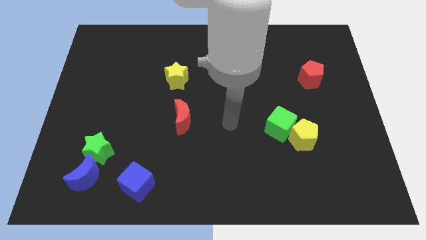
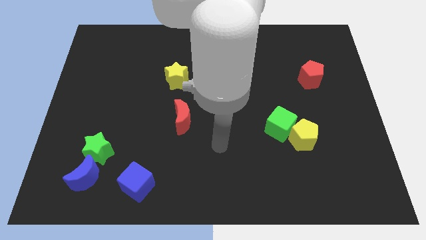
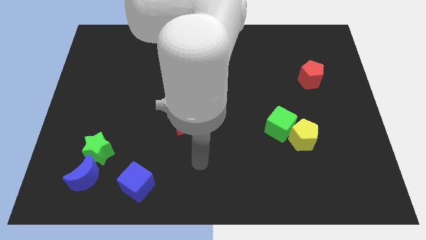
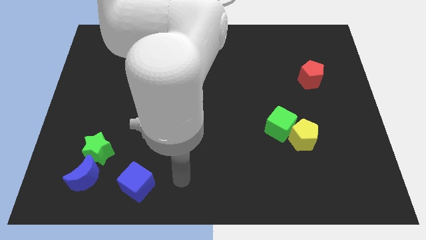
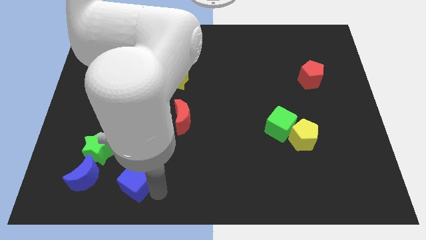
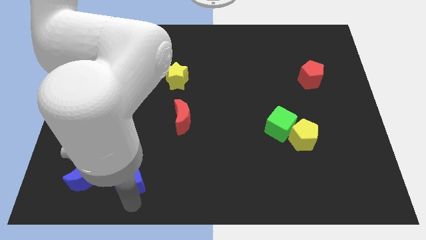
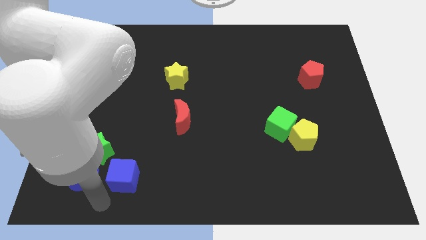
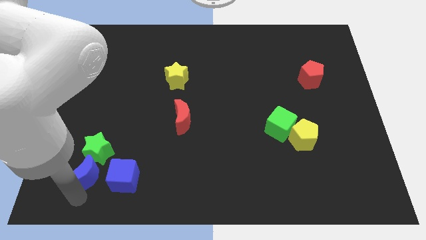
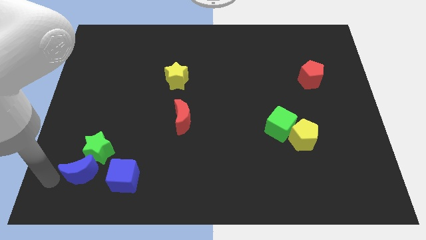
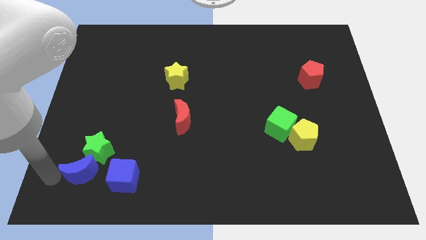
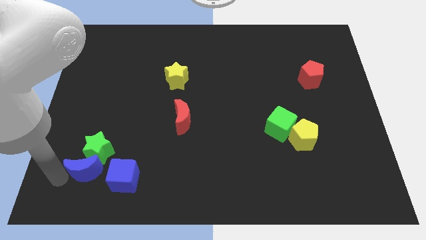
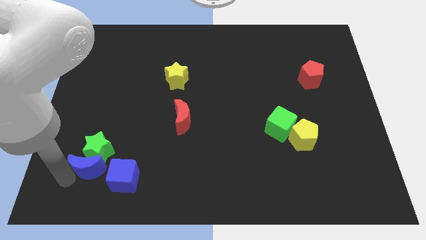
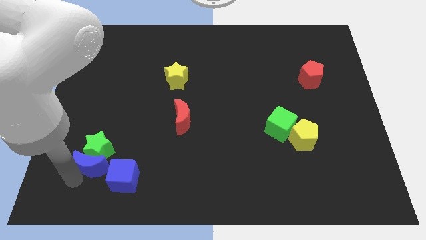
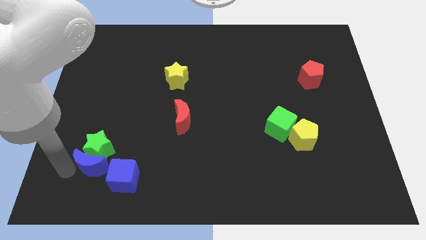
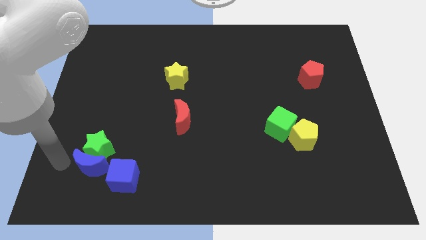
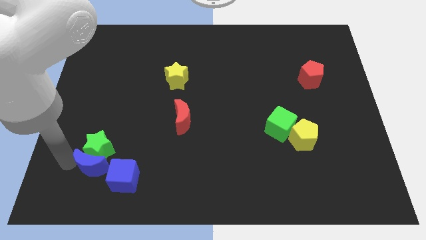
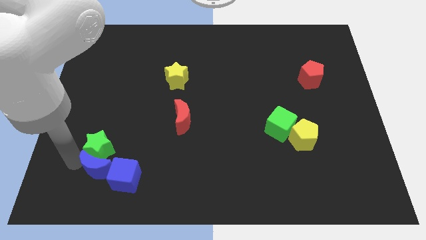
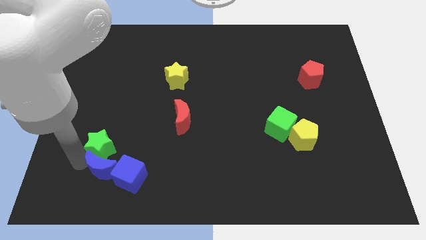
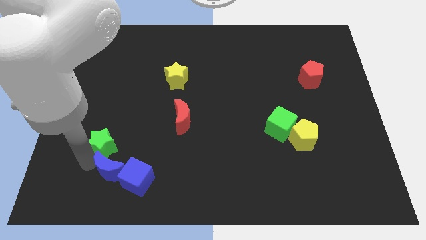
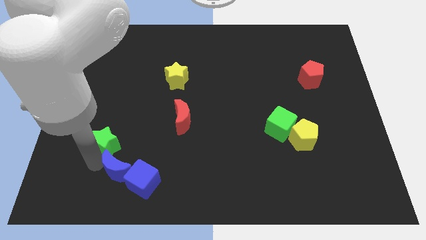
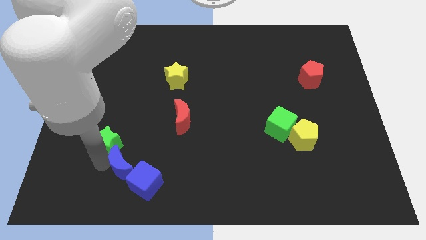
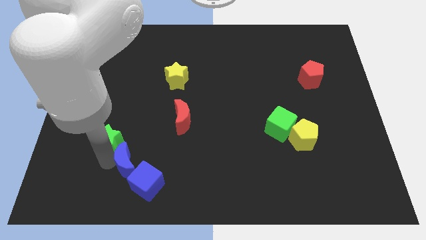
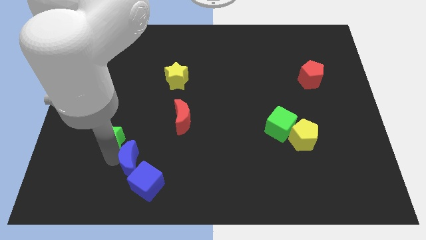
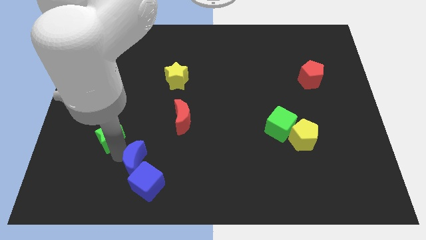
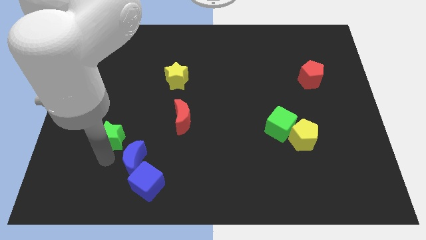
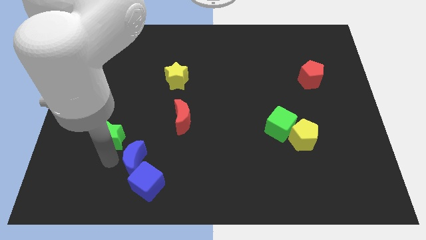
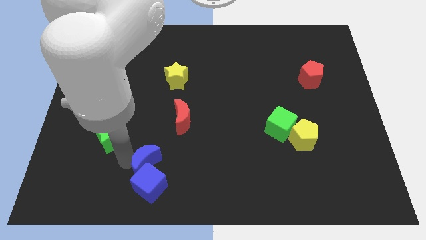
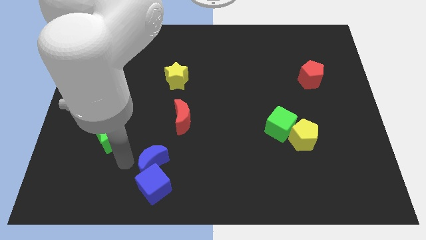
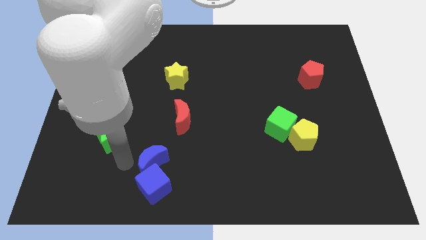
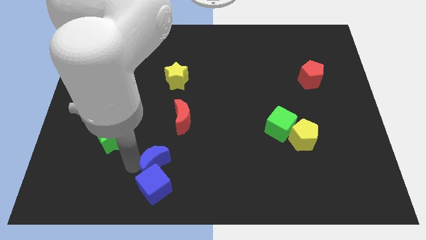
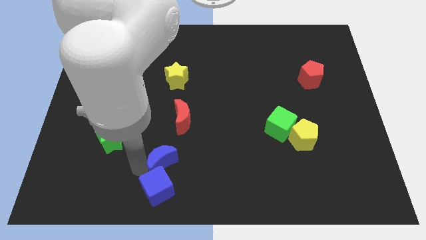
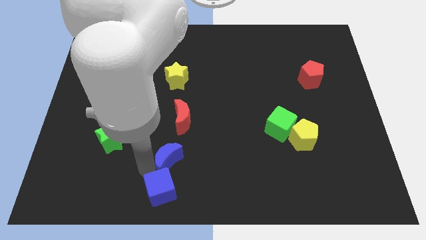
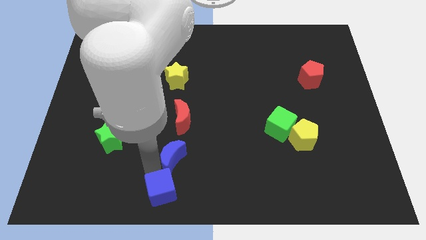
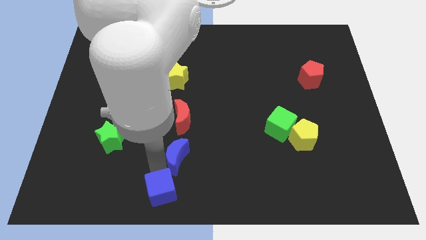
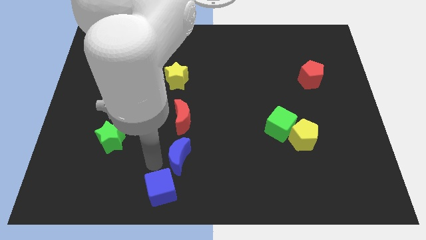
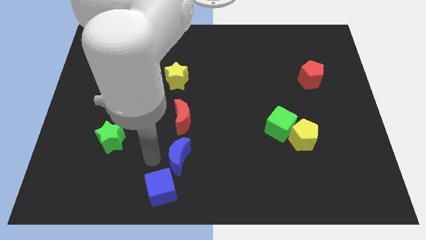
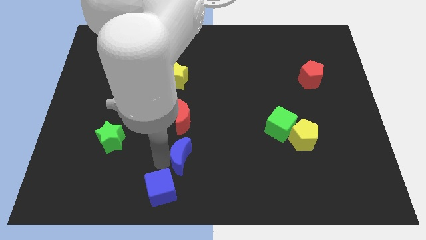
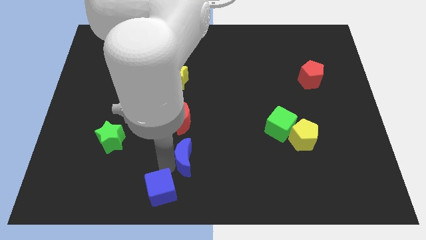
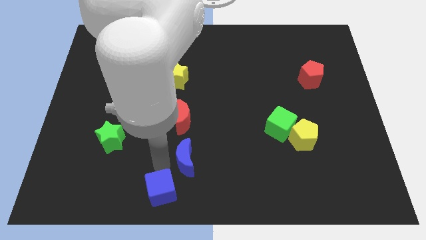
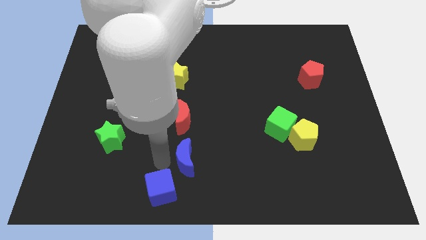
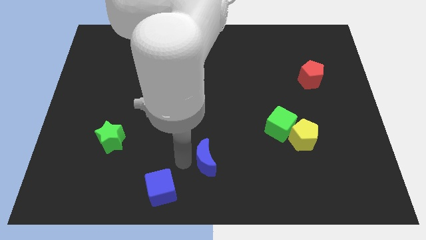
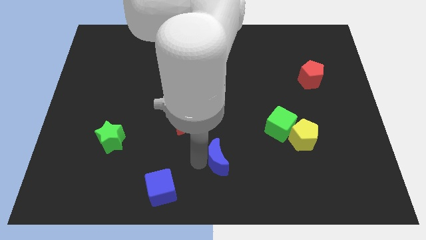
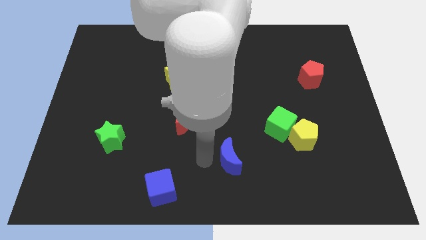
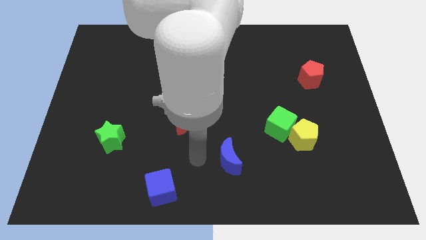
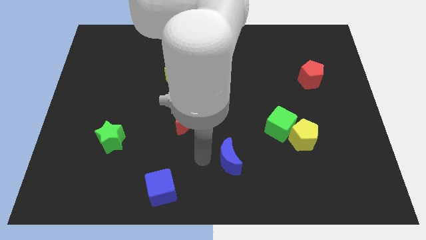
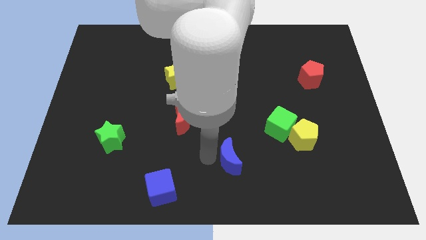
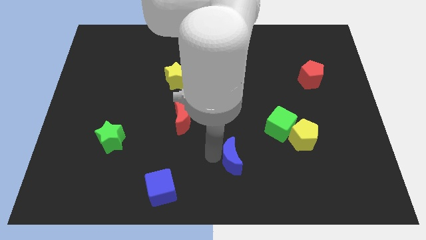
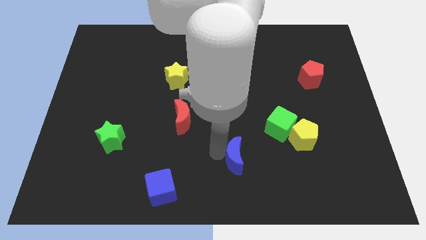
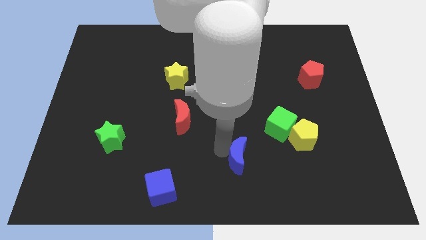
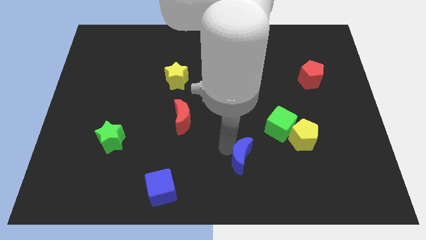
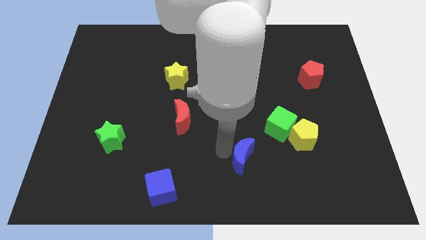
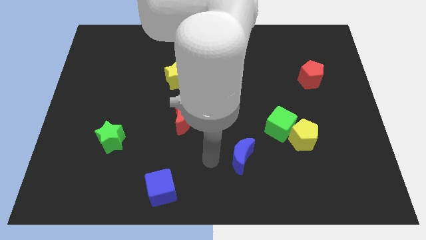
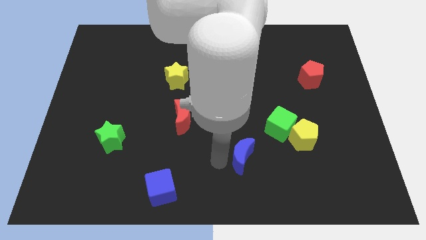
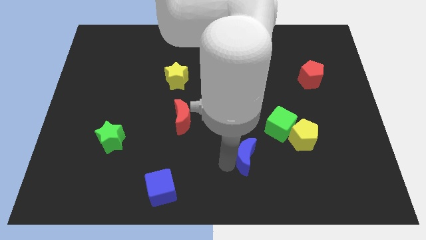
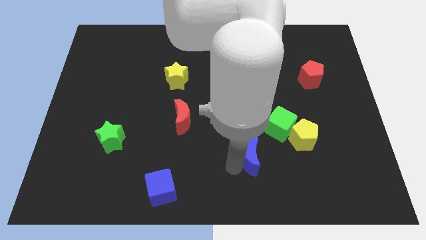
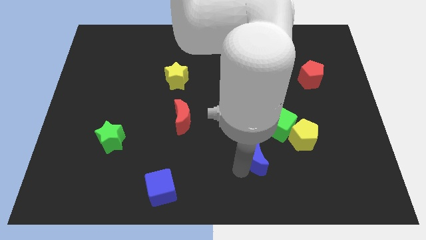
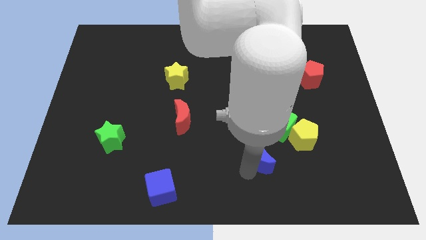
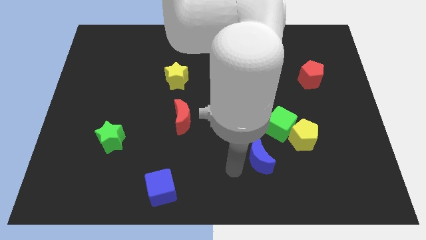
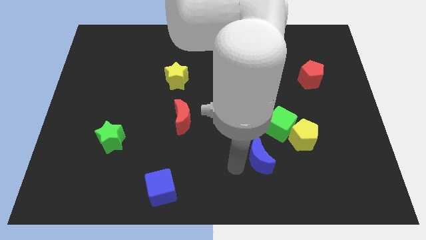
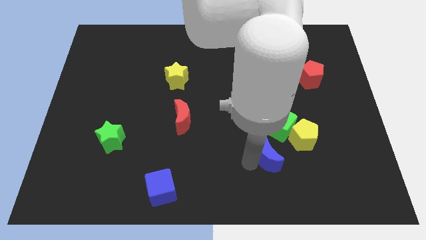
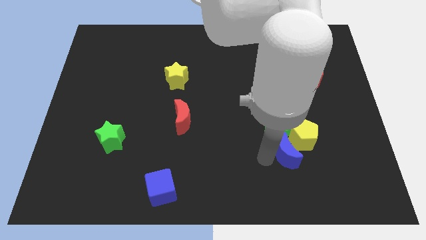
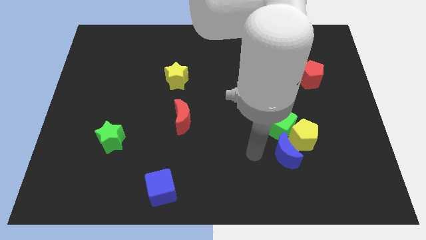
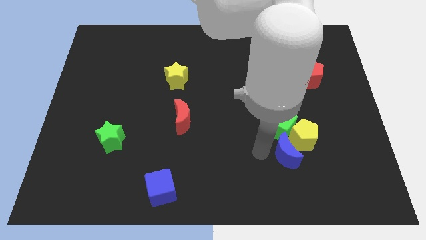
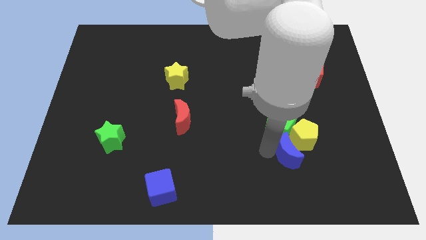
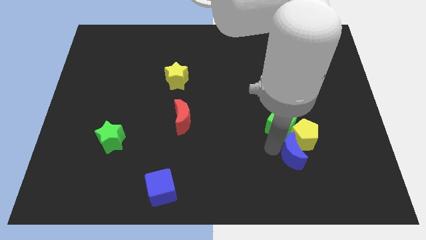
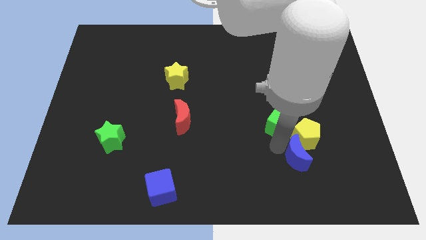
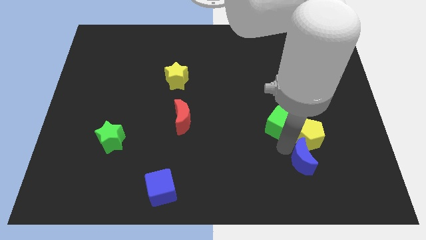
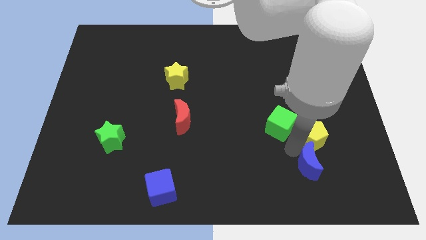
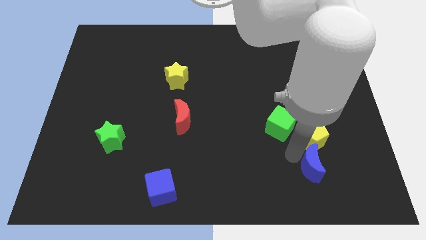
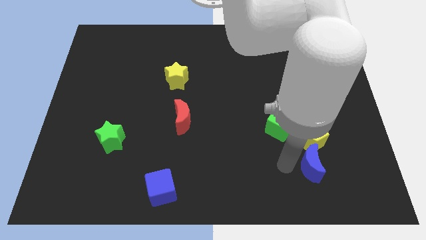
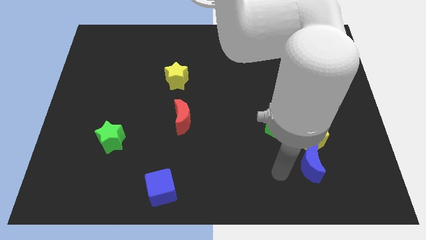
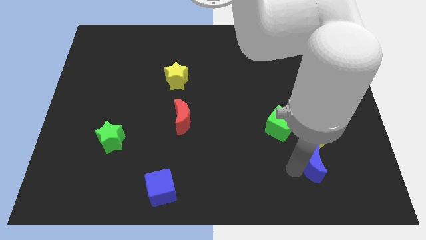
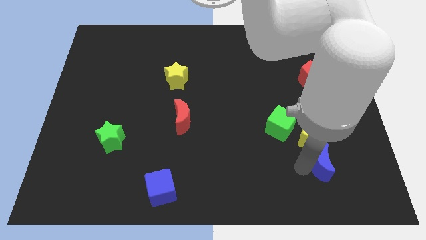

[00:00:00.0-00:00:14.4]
put the blue moon diagonally down and to the right of the yellow pentagon

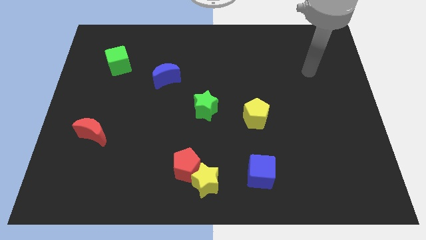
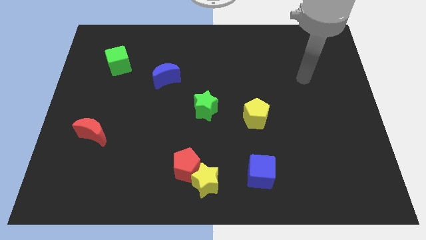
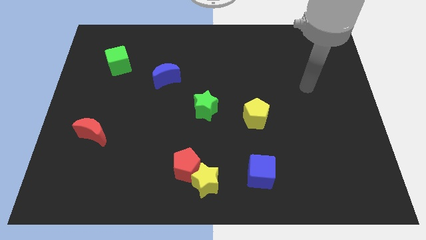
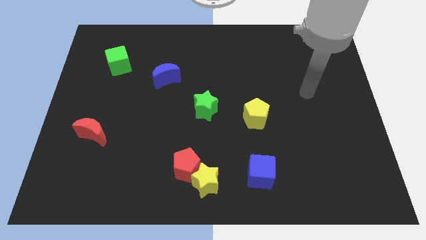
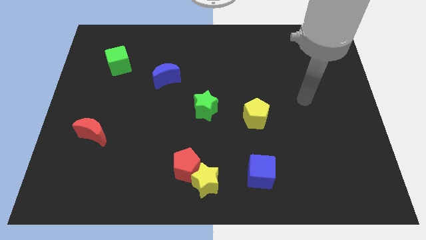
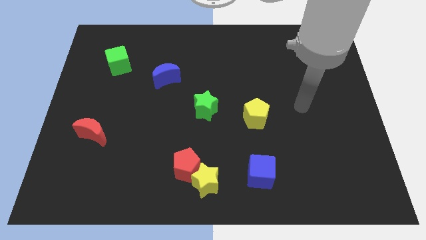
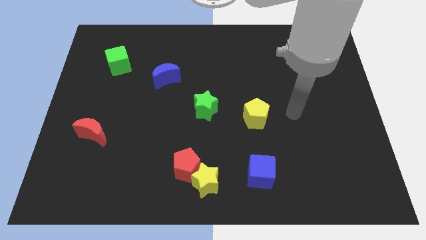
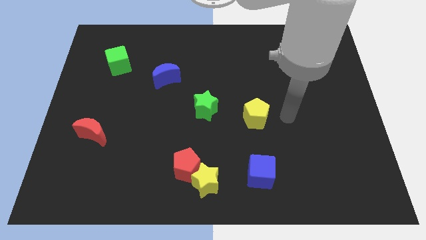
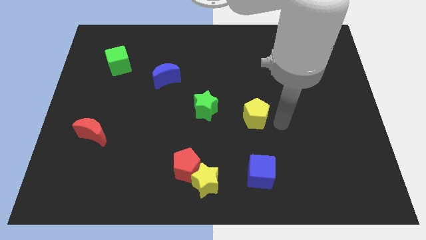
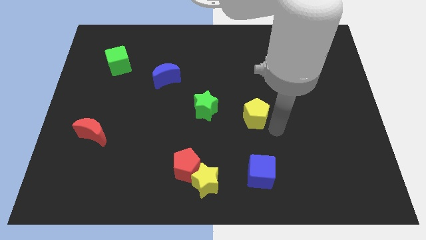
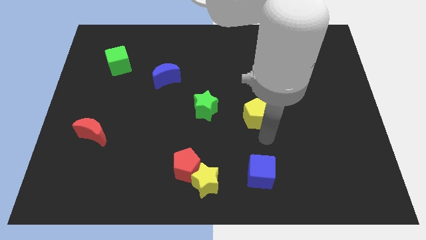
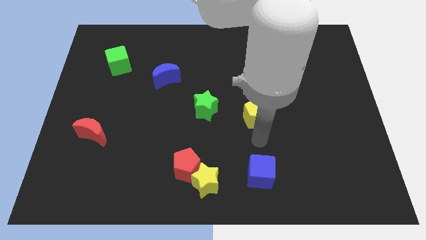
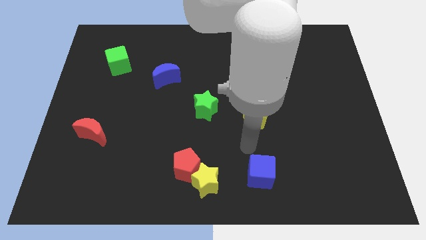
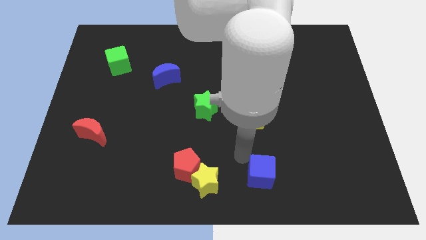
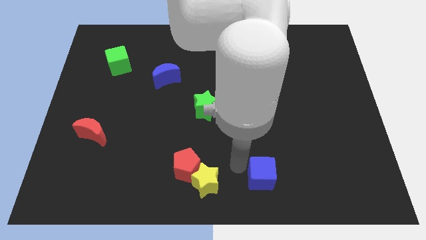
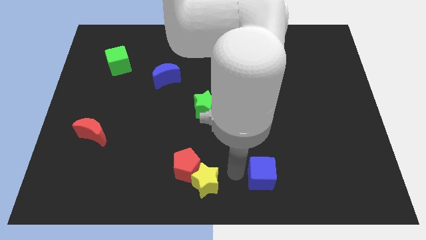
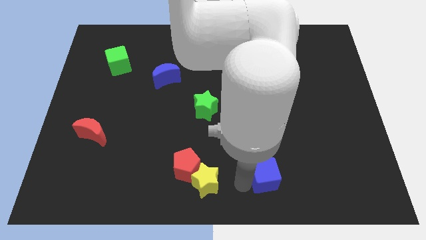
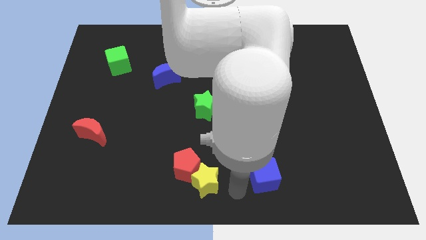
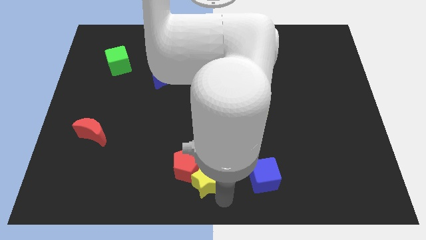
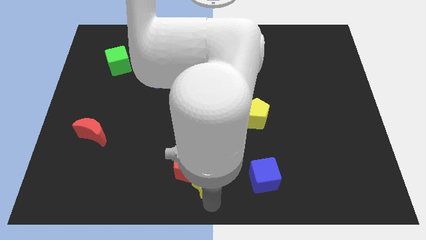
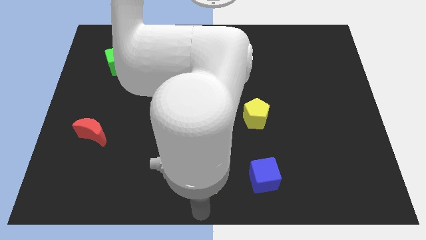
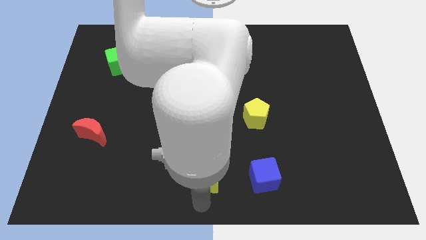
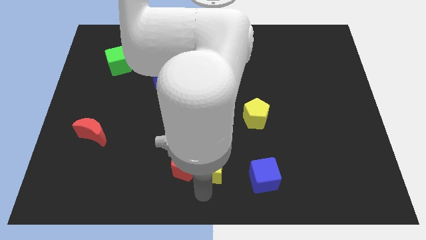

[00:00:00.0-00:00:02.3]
slide the yellow star diagonally up and to the right of the red pentagon
